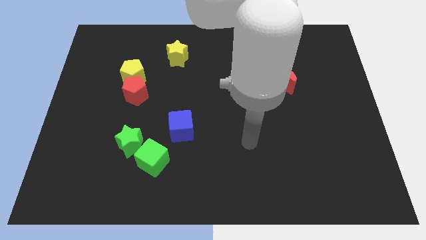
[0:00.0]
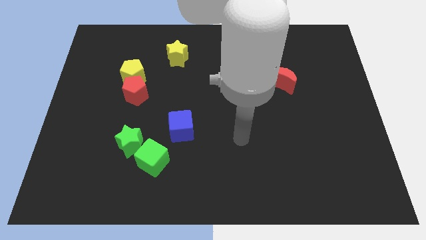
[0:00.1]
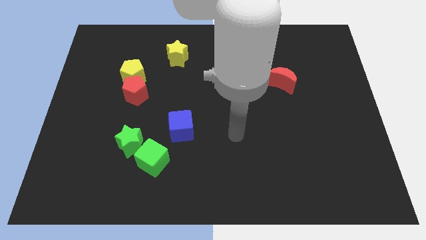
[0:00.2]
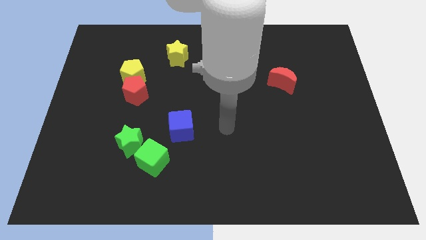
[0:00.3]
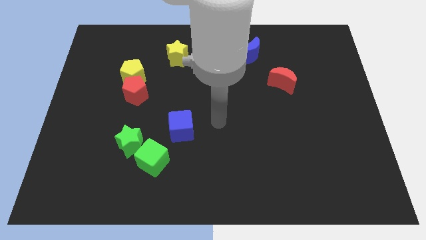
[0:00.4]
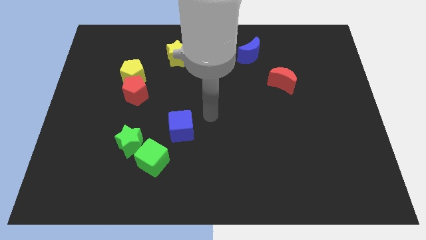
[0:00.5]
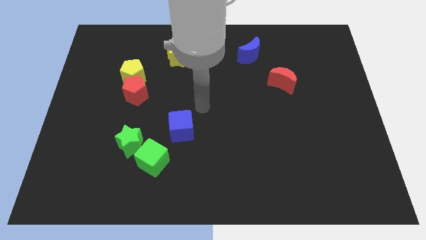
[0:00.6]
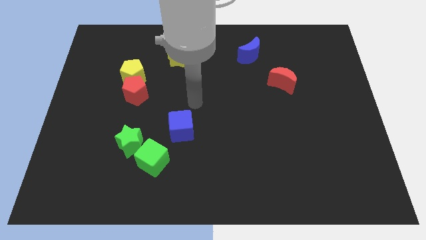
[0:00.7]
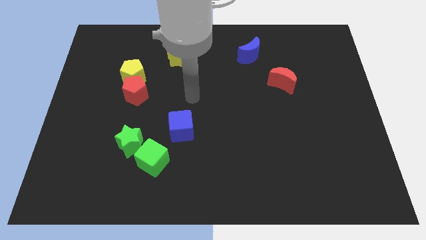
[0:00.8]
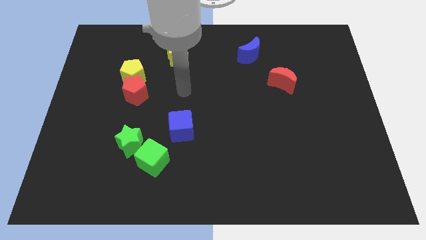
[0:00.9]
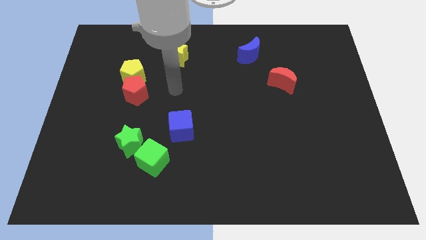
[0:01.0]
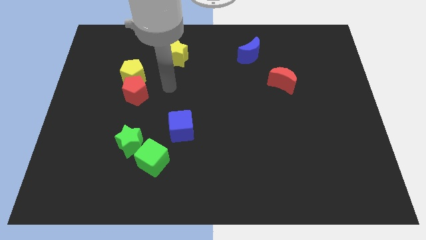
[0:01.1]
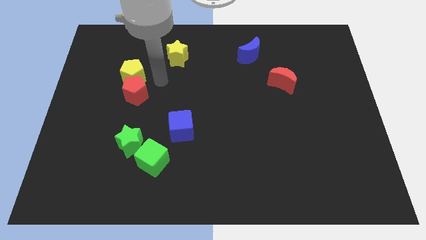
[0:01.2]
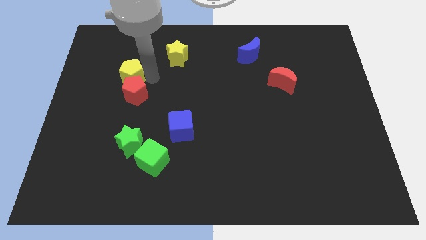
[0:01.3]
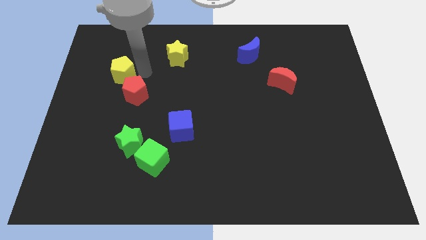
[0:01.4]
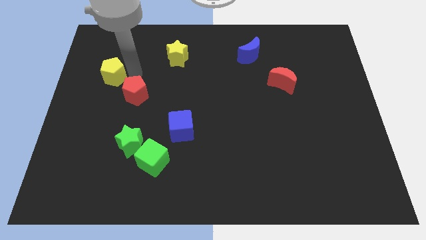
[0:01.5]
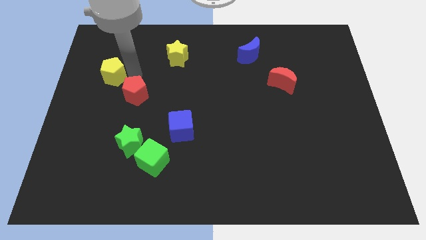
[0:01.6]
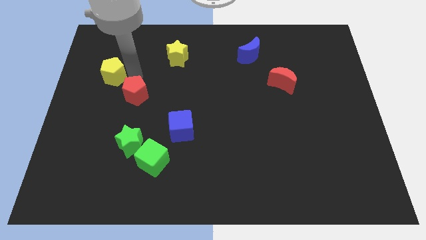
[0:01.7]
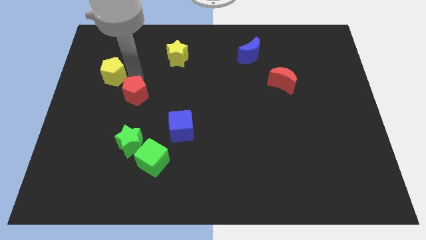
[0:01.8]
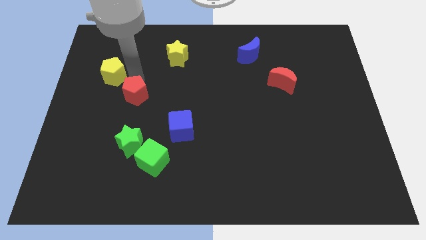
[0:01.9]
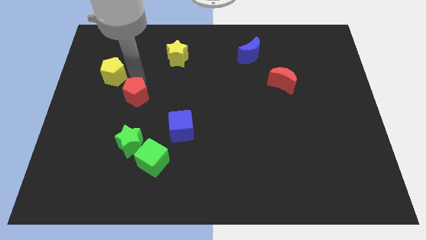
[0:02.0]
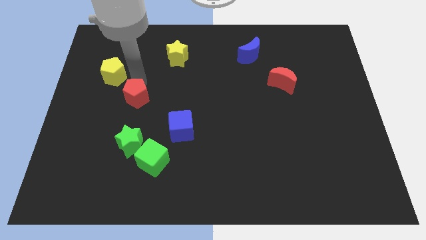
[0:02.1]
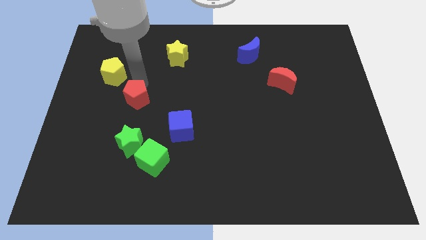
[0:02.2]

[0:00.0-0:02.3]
move the red pentagon away from the yellow pentagon

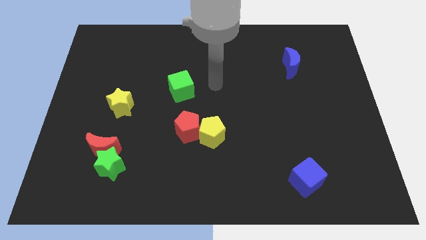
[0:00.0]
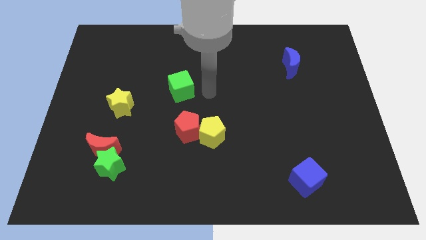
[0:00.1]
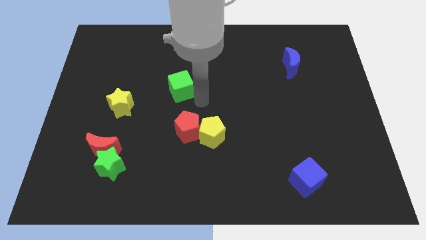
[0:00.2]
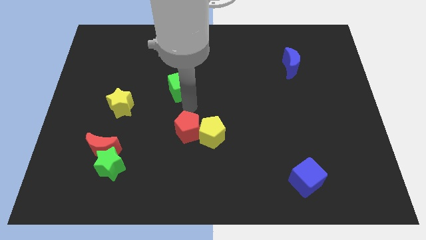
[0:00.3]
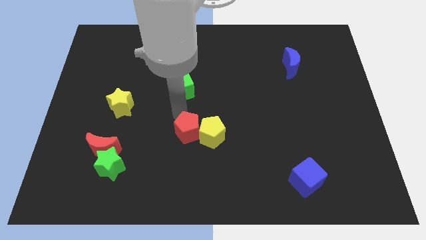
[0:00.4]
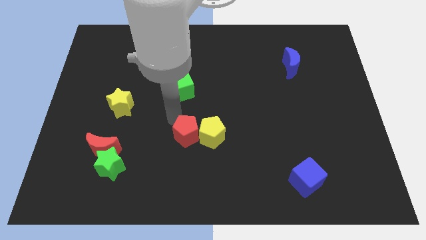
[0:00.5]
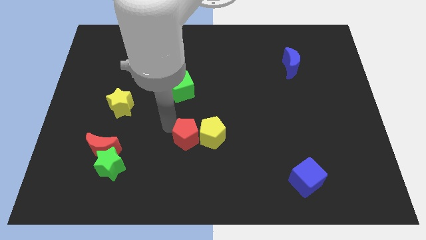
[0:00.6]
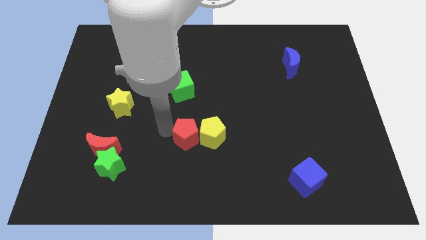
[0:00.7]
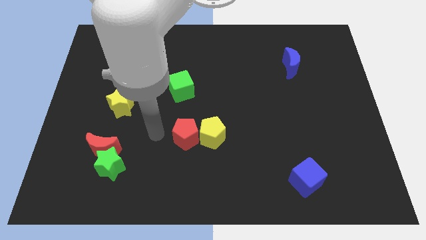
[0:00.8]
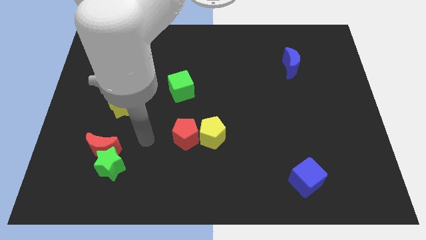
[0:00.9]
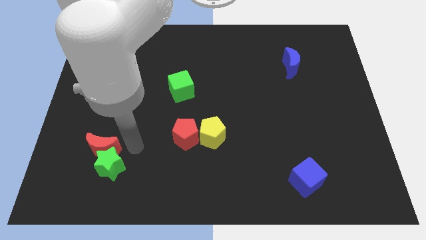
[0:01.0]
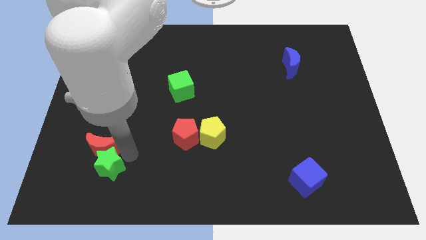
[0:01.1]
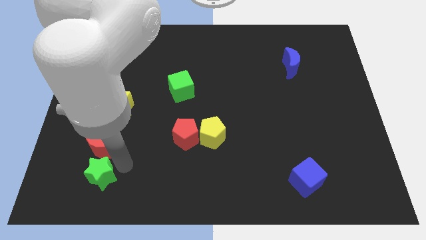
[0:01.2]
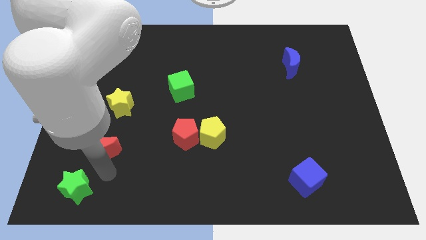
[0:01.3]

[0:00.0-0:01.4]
separate the red moon from the green star

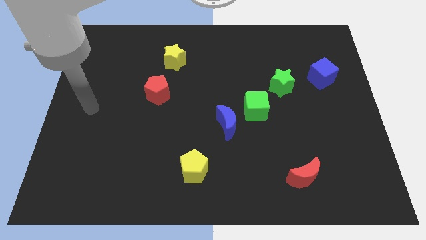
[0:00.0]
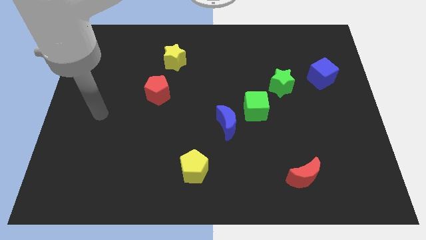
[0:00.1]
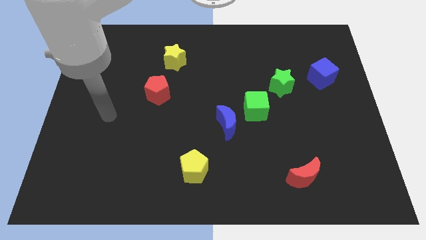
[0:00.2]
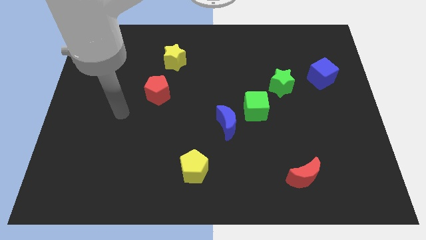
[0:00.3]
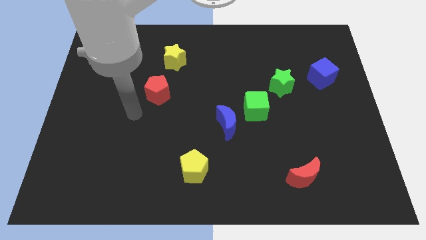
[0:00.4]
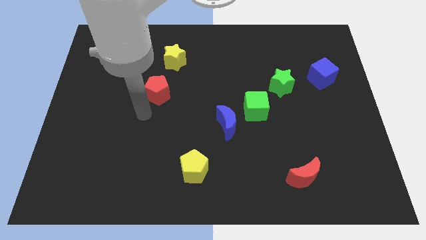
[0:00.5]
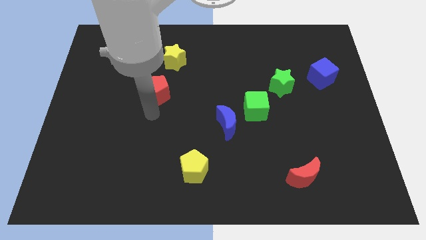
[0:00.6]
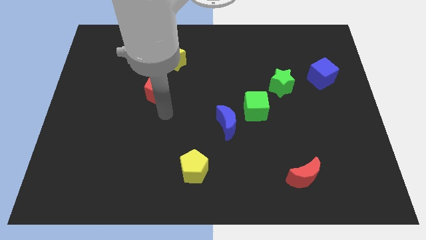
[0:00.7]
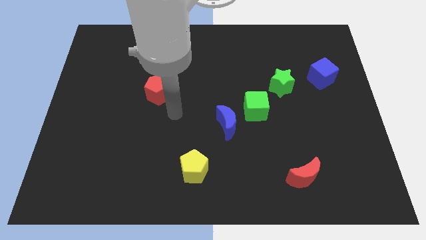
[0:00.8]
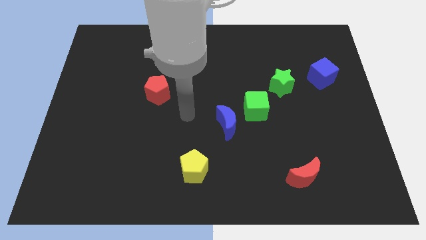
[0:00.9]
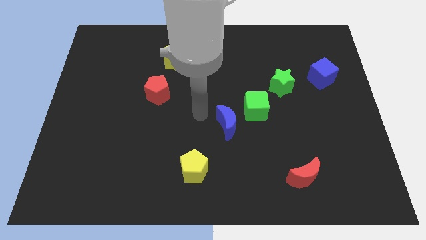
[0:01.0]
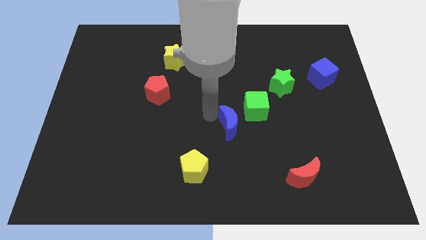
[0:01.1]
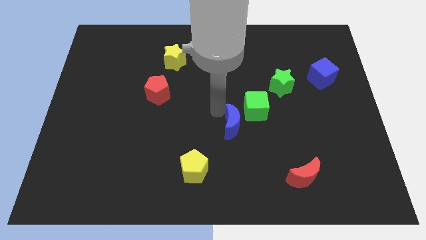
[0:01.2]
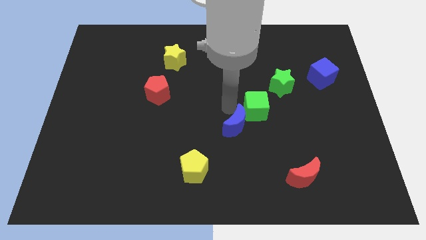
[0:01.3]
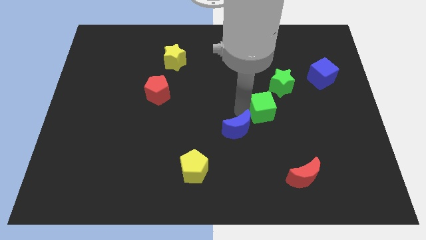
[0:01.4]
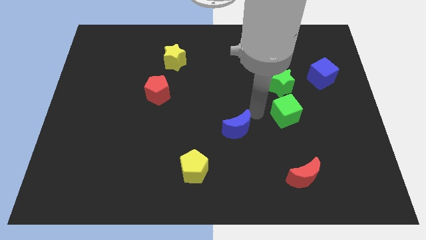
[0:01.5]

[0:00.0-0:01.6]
move the blue moon away from the green cube

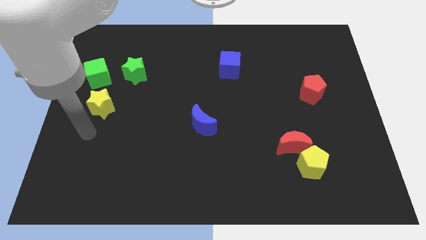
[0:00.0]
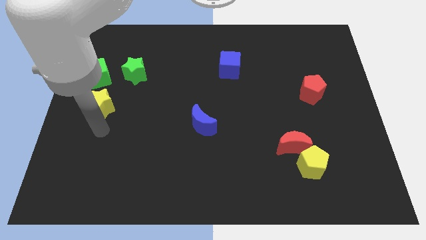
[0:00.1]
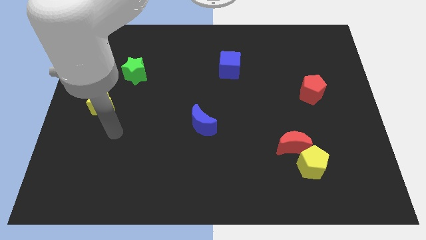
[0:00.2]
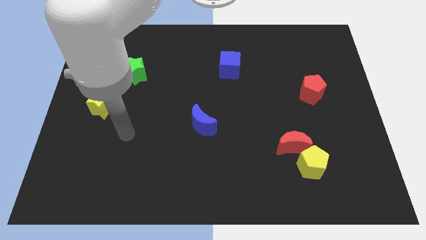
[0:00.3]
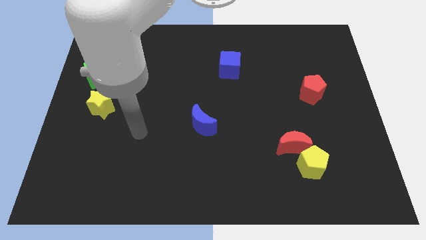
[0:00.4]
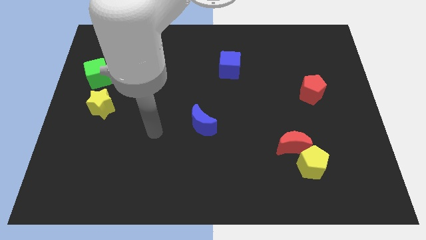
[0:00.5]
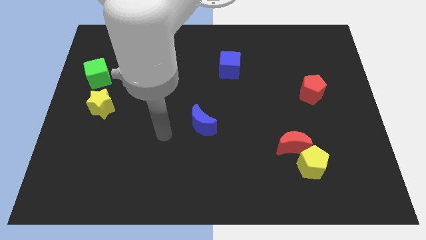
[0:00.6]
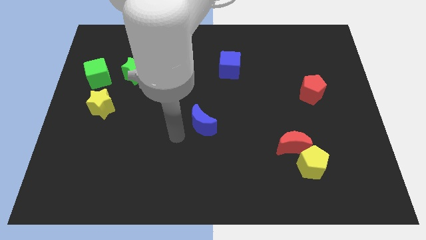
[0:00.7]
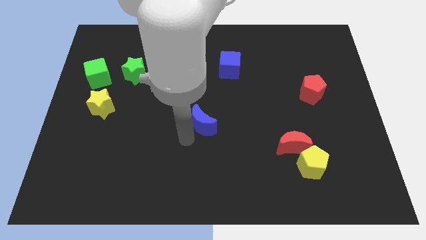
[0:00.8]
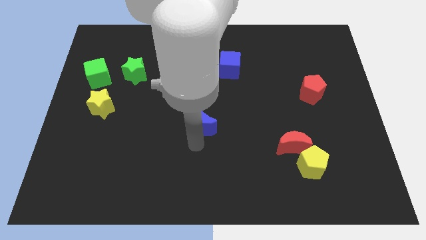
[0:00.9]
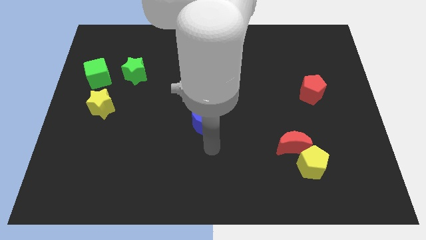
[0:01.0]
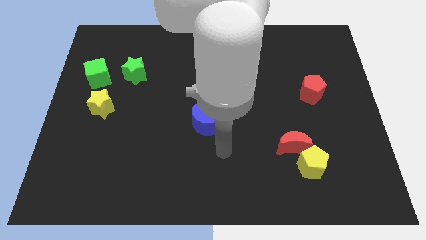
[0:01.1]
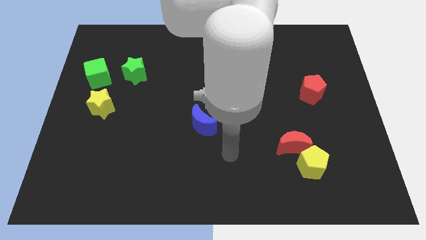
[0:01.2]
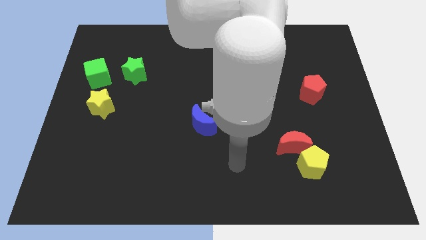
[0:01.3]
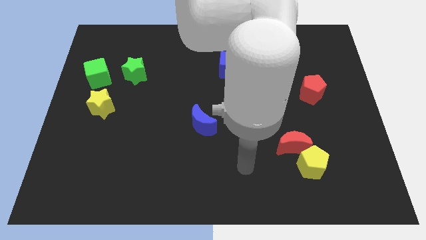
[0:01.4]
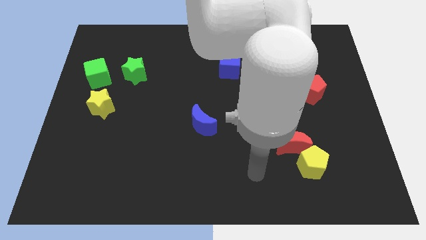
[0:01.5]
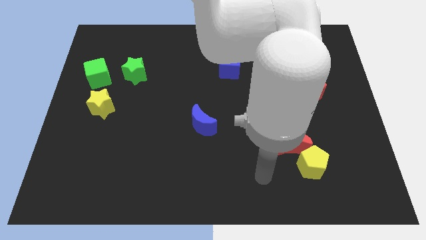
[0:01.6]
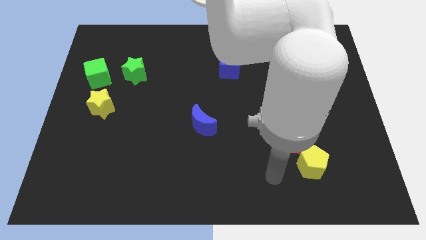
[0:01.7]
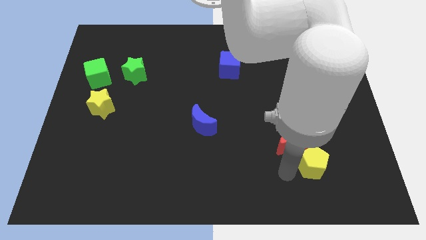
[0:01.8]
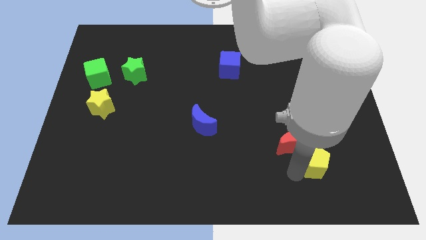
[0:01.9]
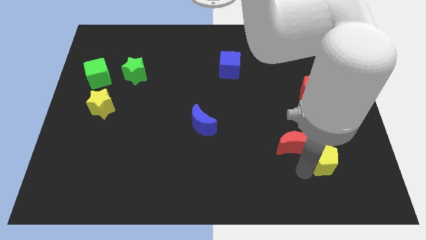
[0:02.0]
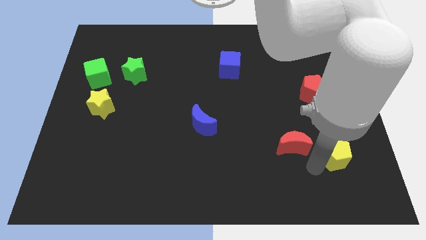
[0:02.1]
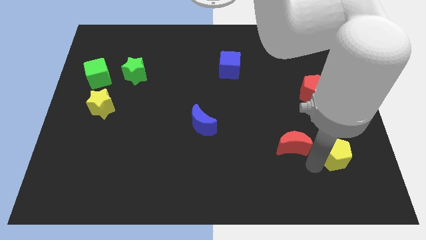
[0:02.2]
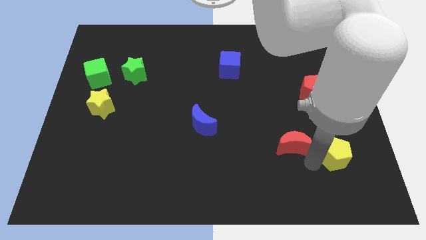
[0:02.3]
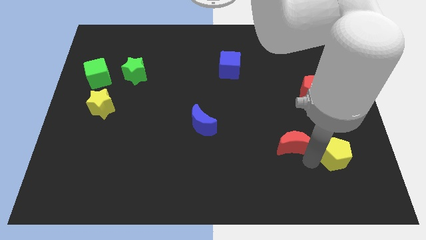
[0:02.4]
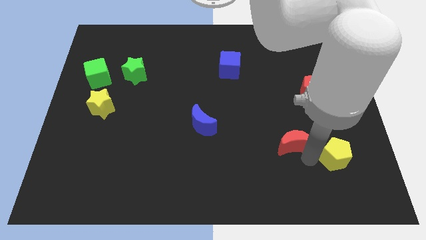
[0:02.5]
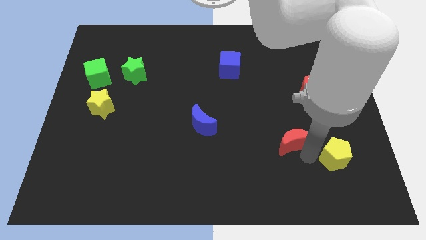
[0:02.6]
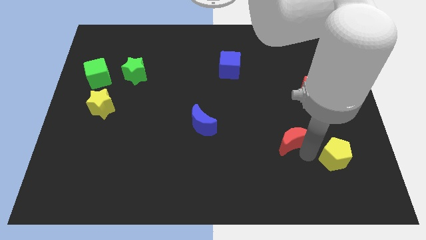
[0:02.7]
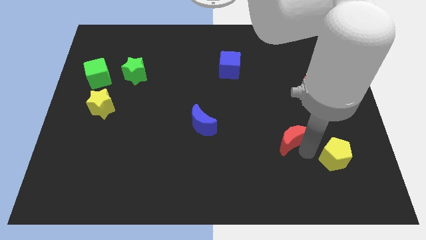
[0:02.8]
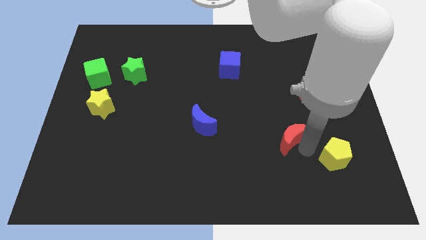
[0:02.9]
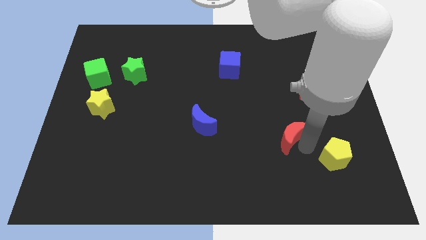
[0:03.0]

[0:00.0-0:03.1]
move the red moon away from the yellow pentagon

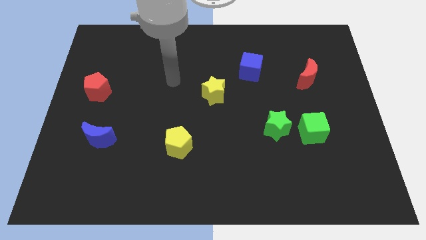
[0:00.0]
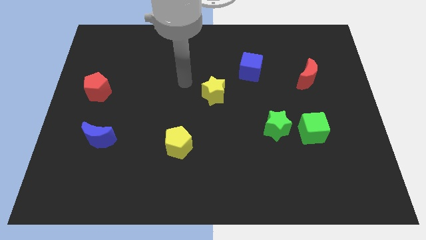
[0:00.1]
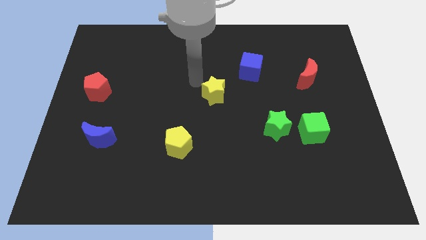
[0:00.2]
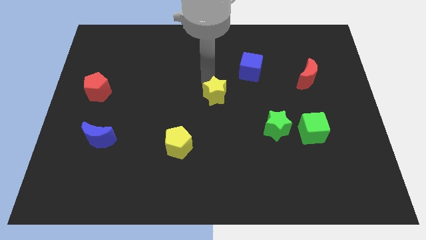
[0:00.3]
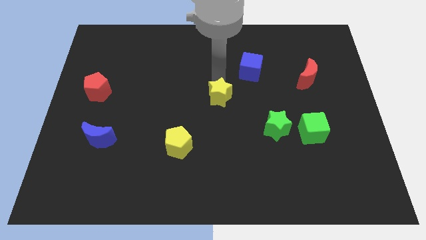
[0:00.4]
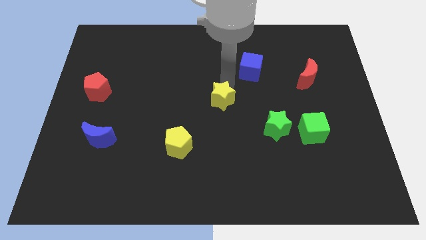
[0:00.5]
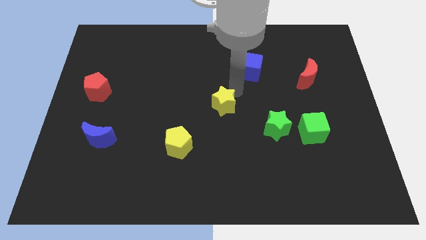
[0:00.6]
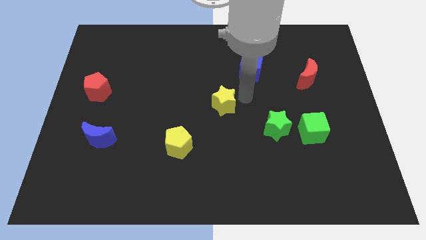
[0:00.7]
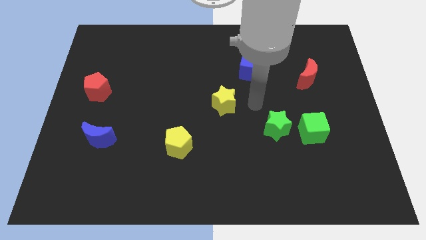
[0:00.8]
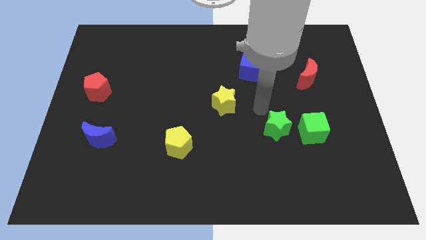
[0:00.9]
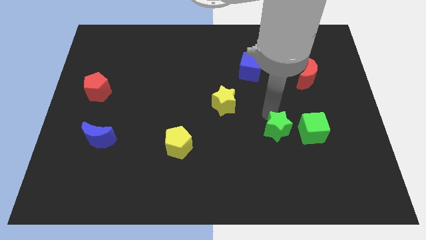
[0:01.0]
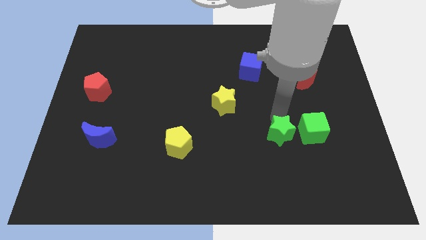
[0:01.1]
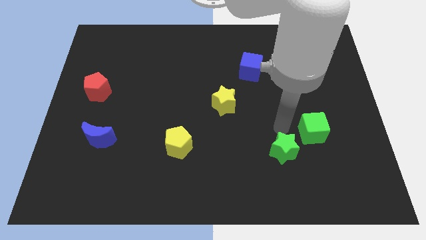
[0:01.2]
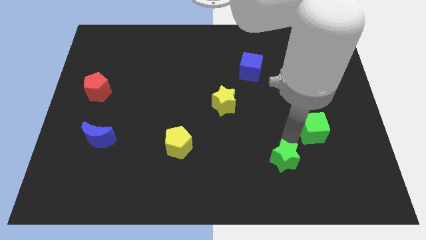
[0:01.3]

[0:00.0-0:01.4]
separate the green cube from the green star
